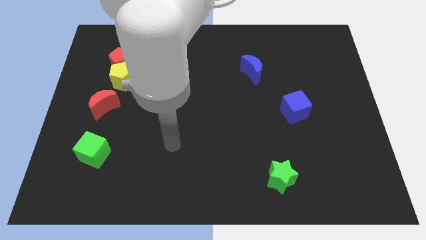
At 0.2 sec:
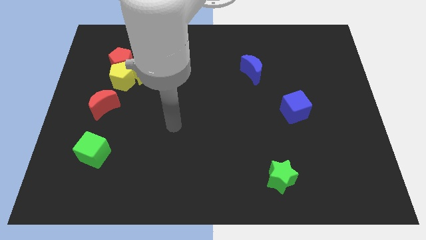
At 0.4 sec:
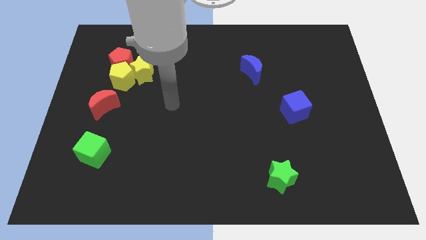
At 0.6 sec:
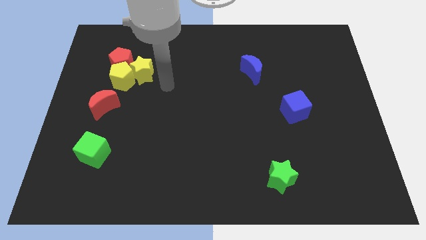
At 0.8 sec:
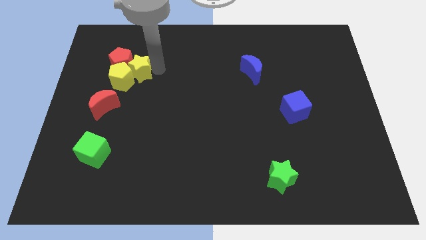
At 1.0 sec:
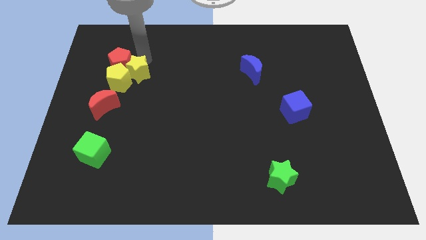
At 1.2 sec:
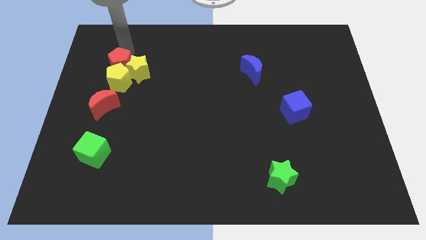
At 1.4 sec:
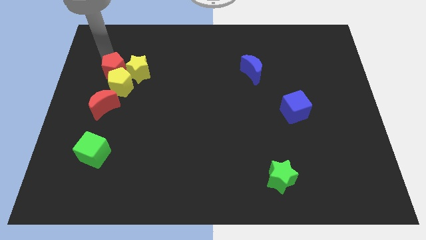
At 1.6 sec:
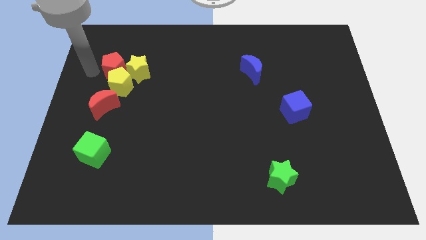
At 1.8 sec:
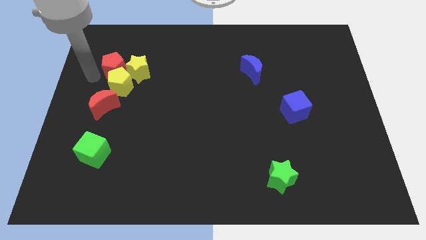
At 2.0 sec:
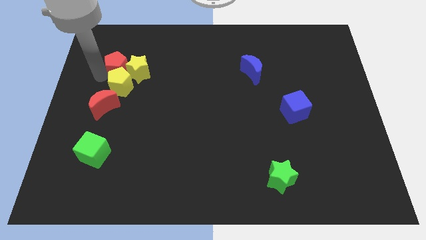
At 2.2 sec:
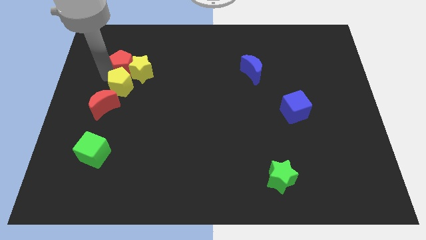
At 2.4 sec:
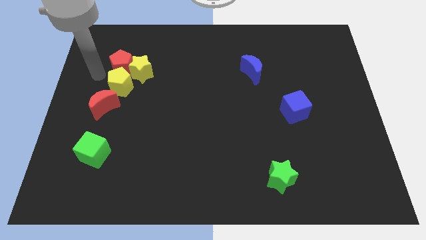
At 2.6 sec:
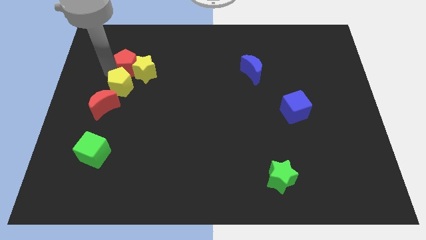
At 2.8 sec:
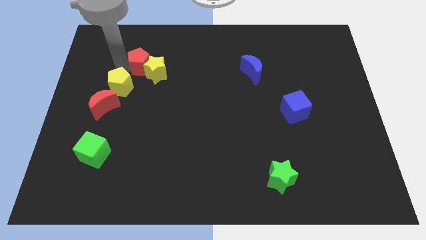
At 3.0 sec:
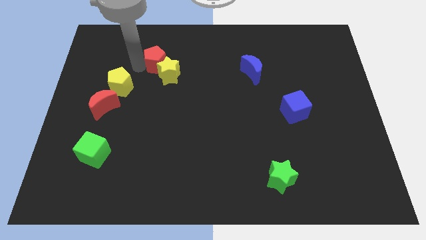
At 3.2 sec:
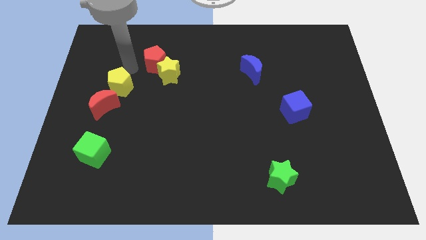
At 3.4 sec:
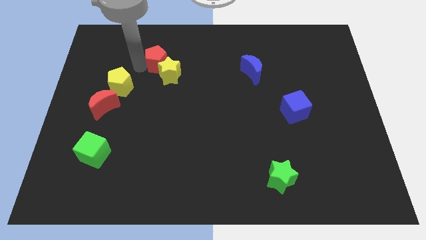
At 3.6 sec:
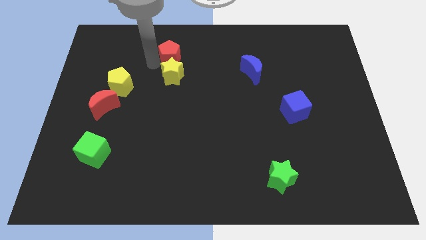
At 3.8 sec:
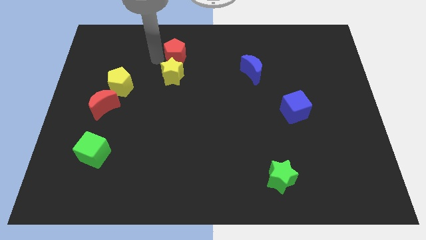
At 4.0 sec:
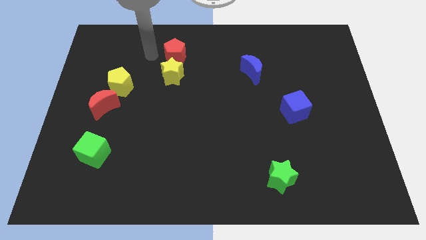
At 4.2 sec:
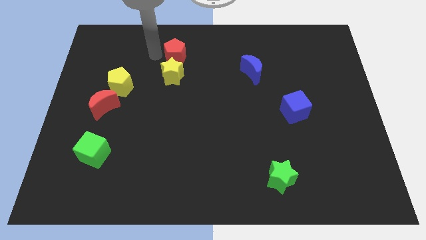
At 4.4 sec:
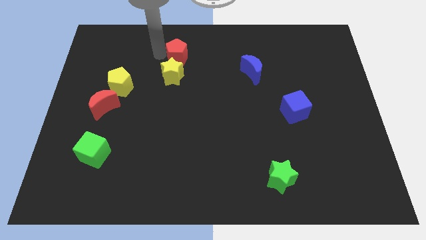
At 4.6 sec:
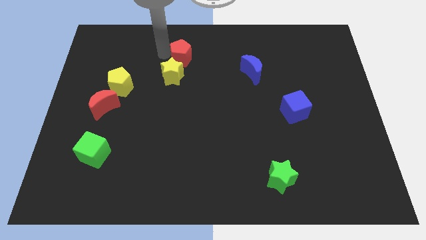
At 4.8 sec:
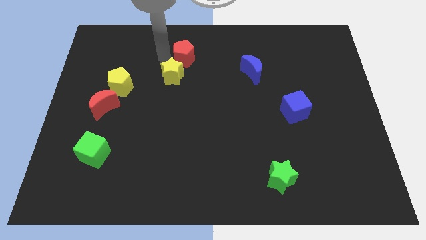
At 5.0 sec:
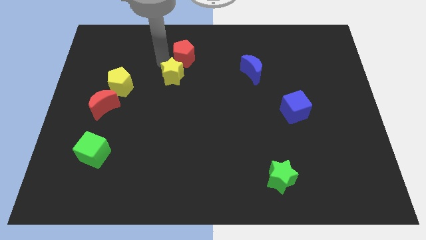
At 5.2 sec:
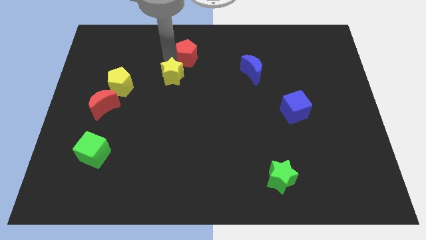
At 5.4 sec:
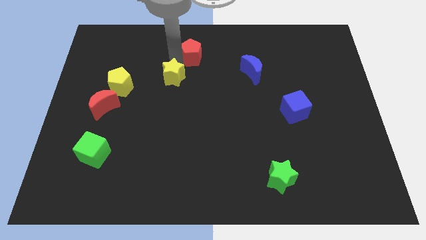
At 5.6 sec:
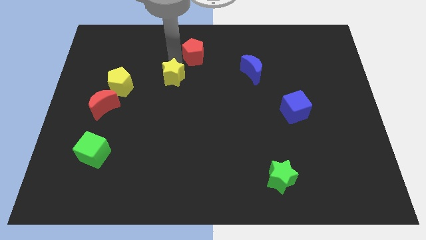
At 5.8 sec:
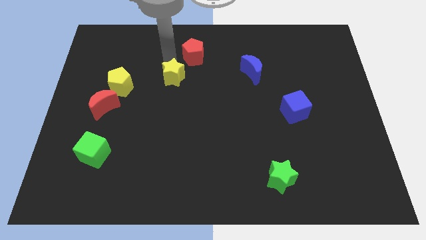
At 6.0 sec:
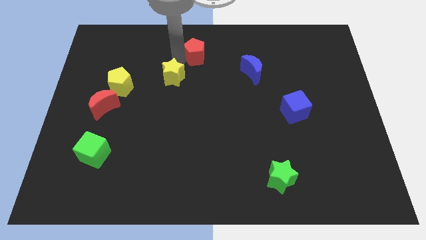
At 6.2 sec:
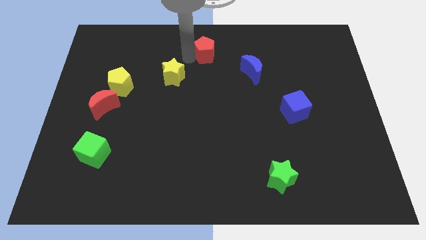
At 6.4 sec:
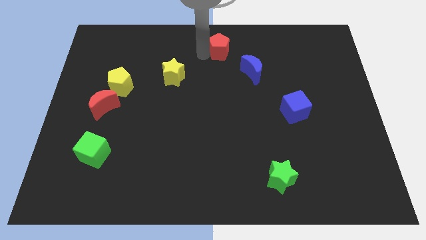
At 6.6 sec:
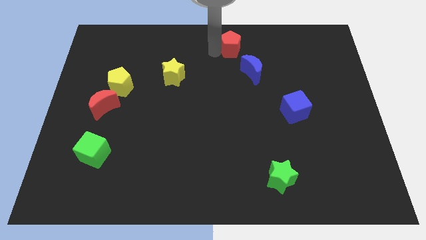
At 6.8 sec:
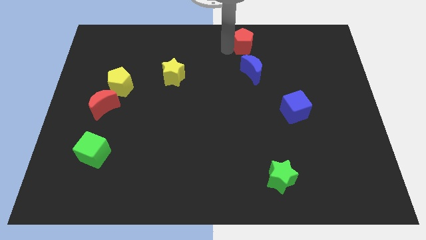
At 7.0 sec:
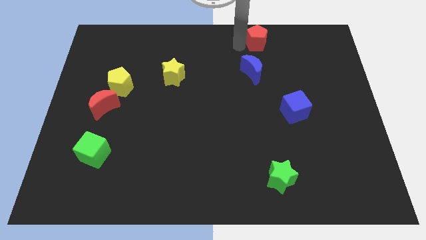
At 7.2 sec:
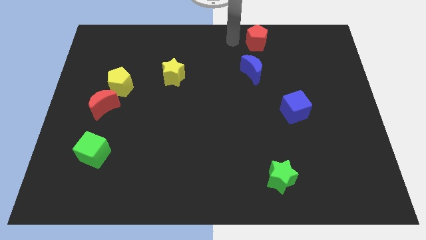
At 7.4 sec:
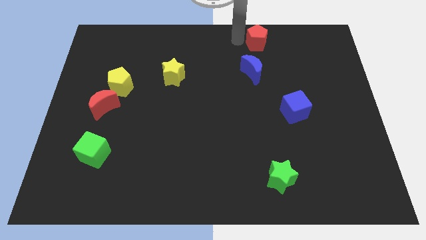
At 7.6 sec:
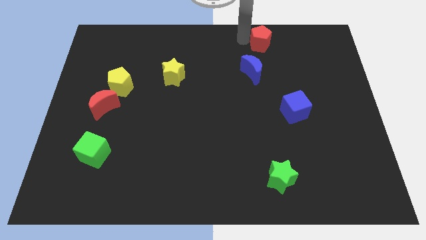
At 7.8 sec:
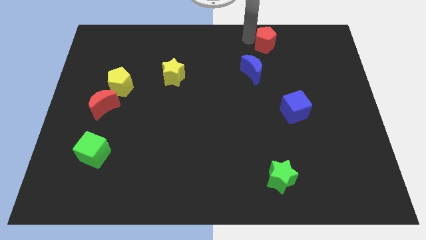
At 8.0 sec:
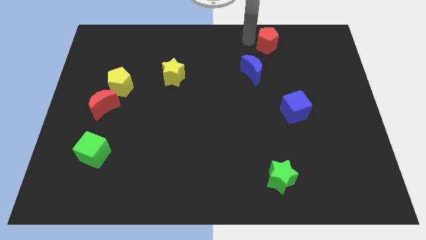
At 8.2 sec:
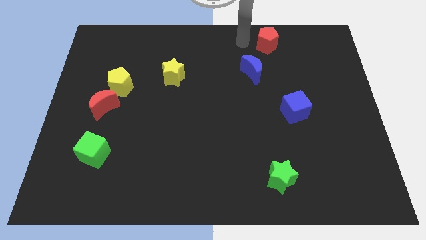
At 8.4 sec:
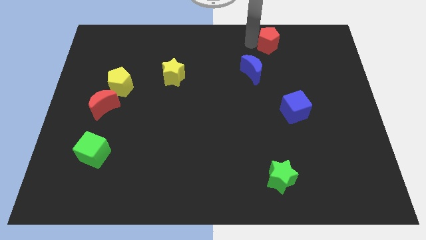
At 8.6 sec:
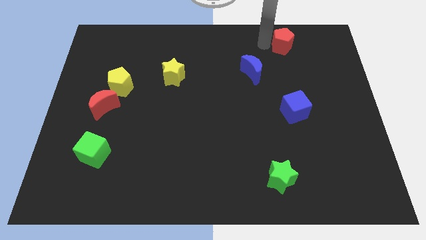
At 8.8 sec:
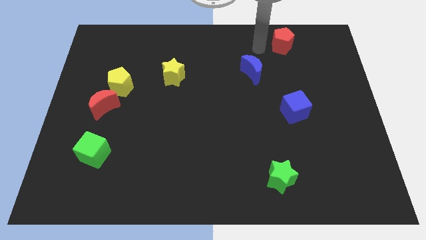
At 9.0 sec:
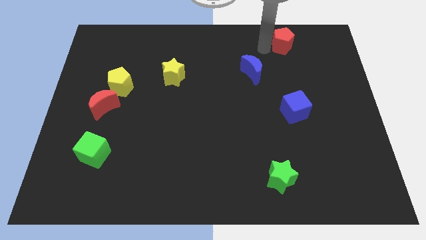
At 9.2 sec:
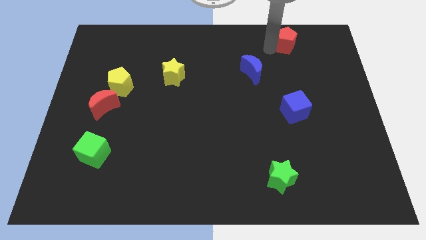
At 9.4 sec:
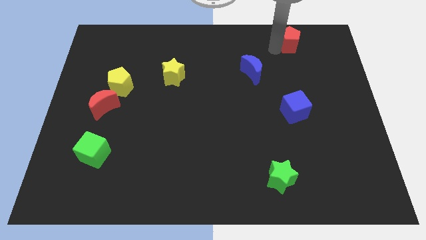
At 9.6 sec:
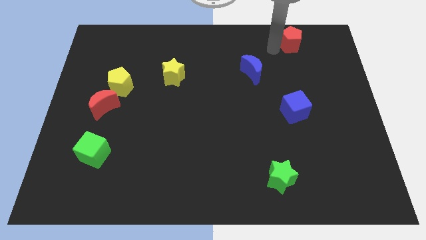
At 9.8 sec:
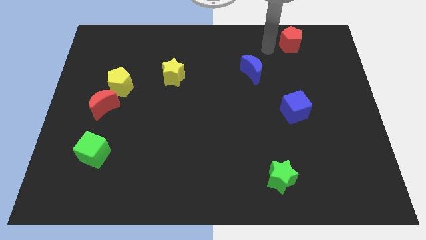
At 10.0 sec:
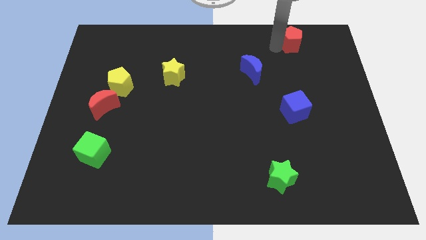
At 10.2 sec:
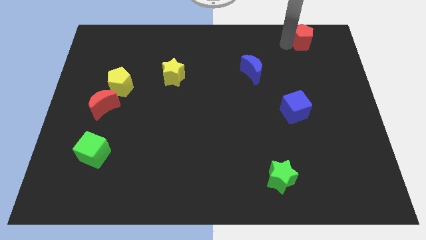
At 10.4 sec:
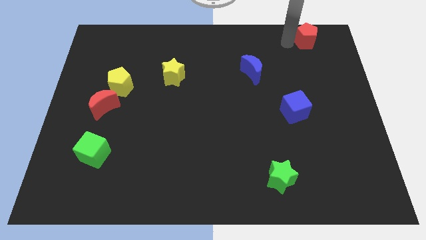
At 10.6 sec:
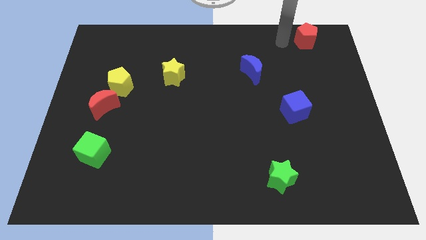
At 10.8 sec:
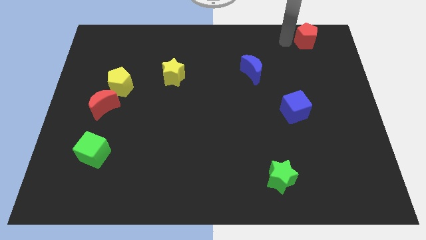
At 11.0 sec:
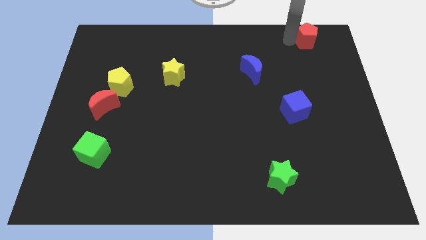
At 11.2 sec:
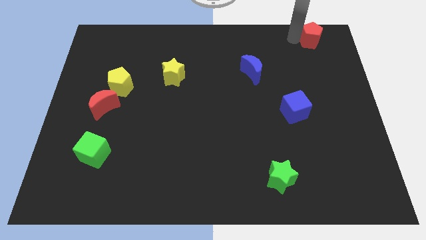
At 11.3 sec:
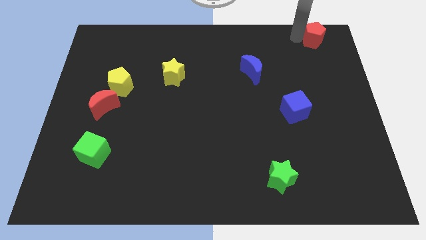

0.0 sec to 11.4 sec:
put the red pentagon to the top right

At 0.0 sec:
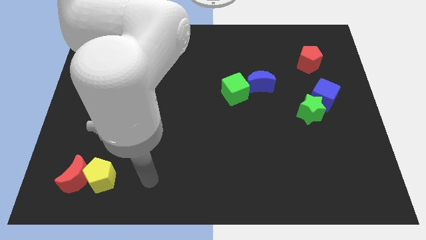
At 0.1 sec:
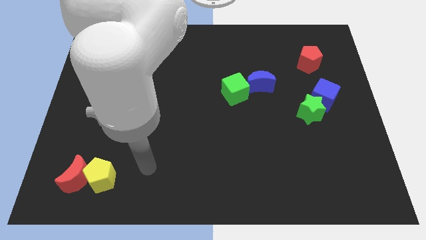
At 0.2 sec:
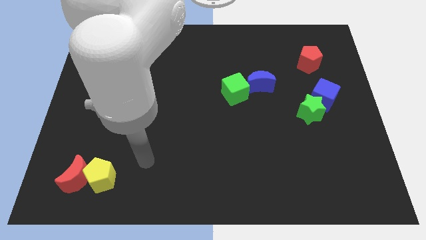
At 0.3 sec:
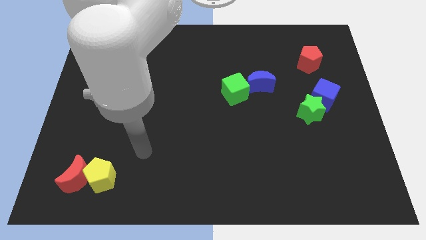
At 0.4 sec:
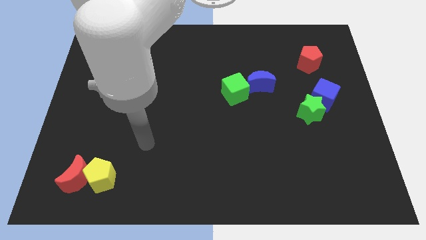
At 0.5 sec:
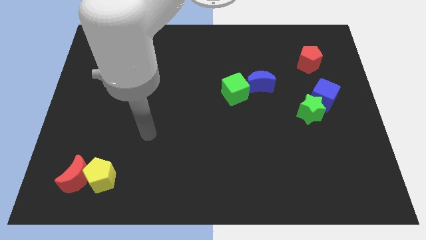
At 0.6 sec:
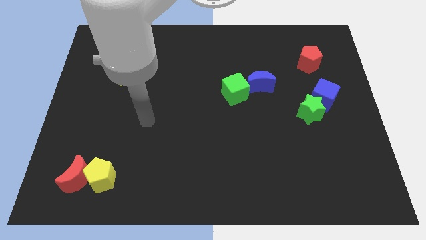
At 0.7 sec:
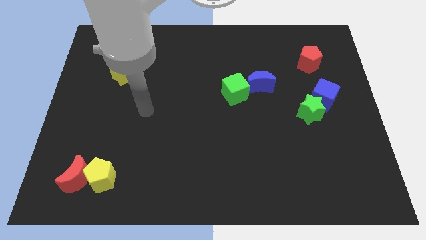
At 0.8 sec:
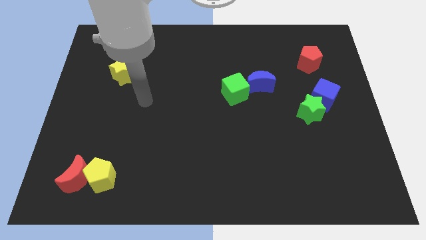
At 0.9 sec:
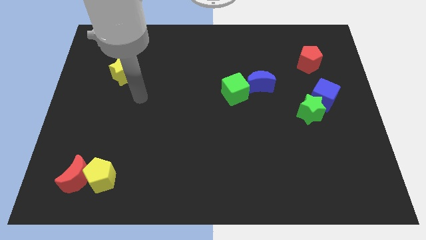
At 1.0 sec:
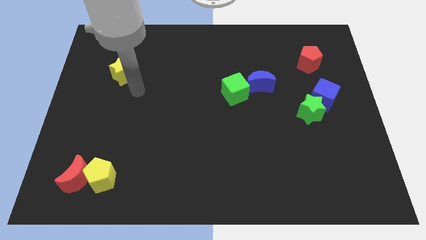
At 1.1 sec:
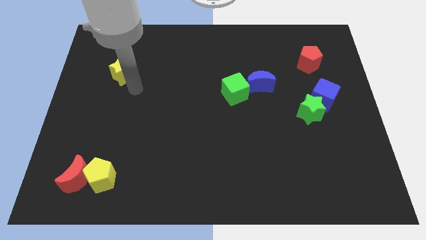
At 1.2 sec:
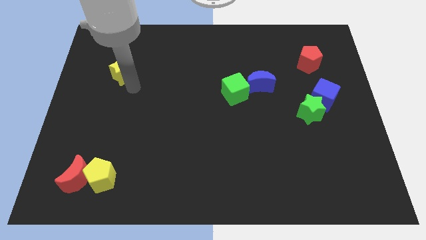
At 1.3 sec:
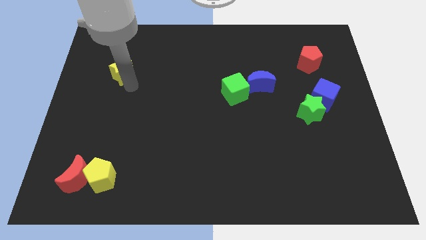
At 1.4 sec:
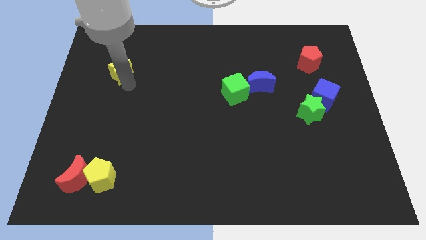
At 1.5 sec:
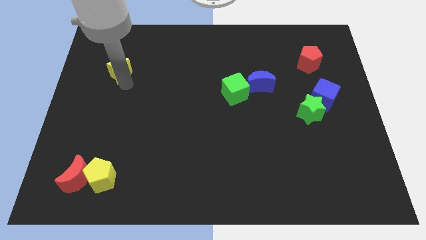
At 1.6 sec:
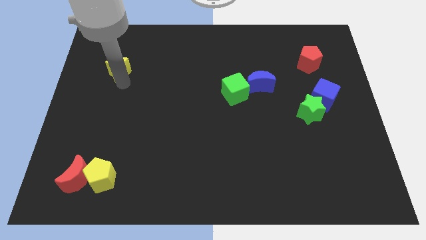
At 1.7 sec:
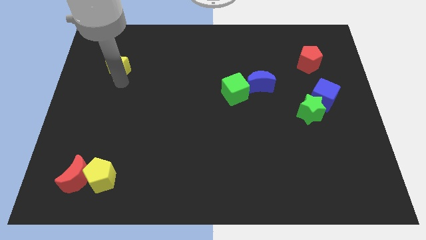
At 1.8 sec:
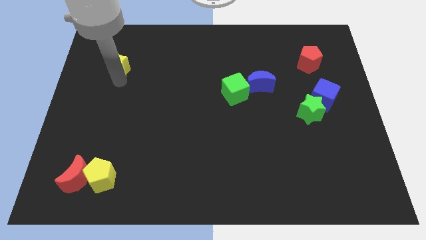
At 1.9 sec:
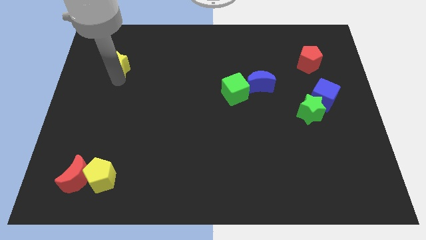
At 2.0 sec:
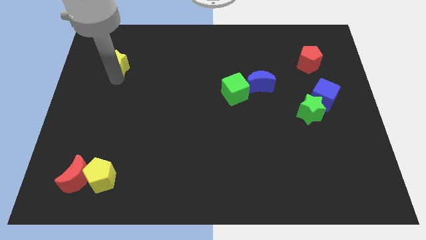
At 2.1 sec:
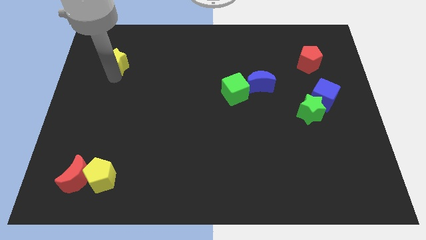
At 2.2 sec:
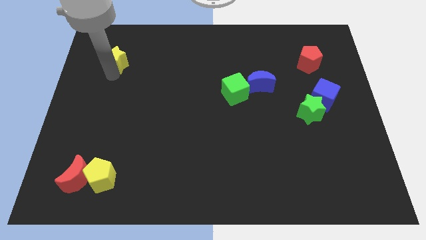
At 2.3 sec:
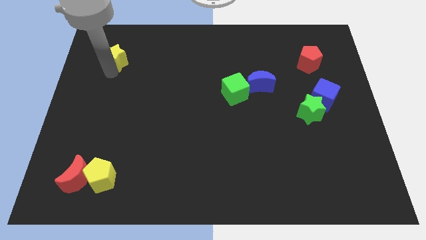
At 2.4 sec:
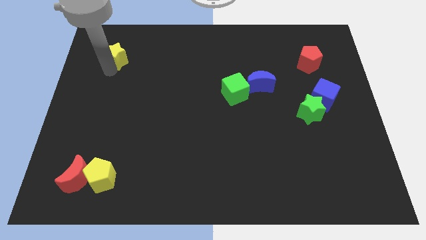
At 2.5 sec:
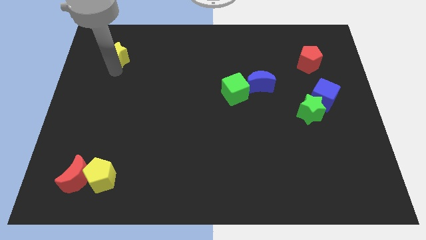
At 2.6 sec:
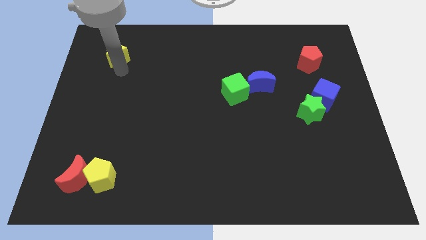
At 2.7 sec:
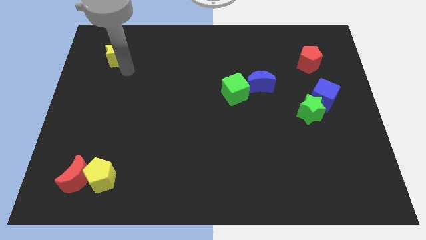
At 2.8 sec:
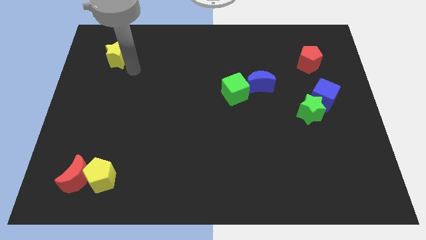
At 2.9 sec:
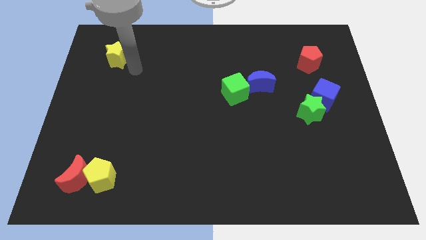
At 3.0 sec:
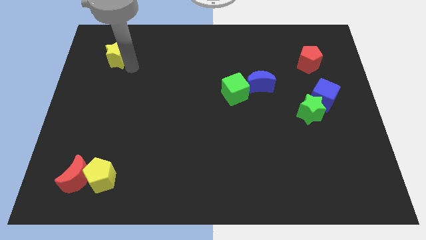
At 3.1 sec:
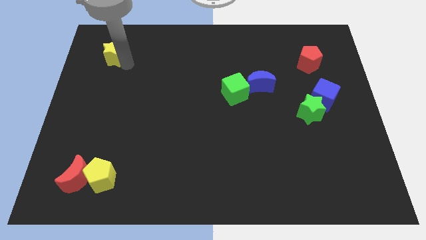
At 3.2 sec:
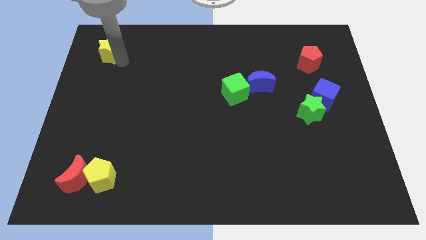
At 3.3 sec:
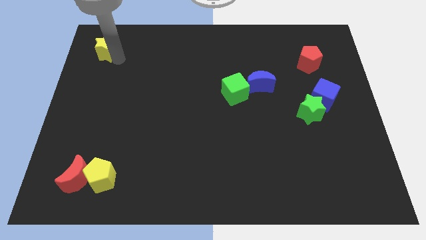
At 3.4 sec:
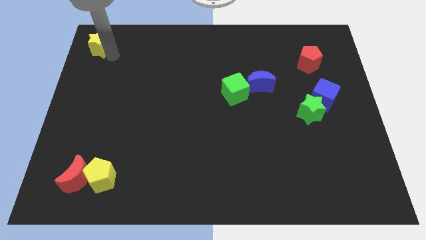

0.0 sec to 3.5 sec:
put the yellow star to the top left corner
